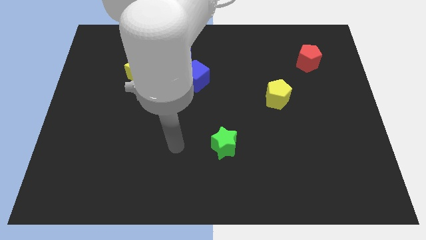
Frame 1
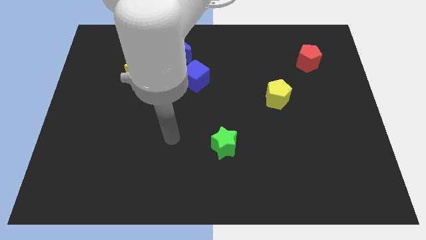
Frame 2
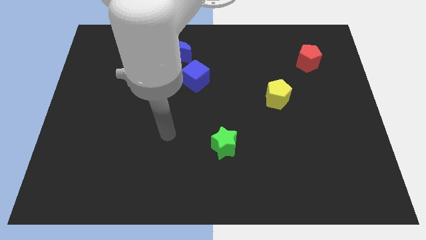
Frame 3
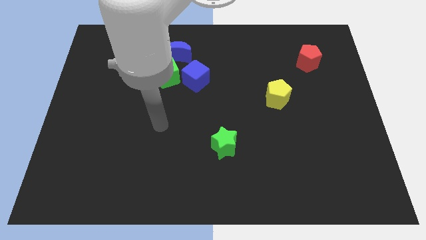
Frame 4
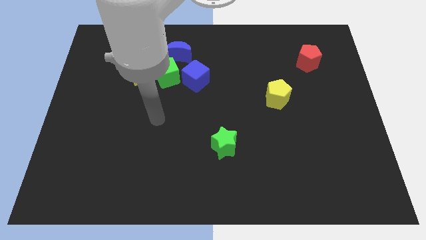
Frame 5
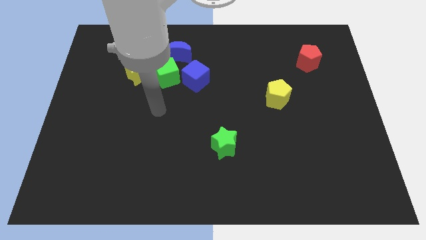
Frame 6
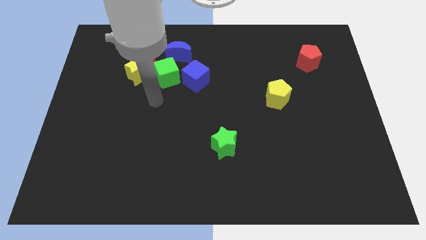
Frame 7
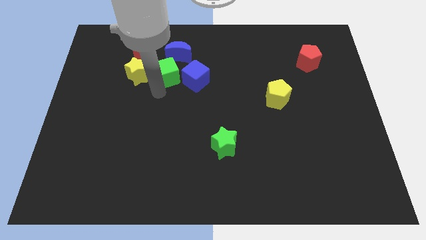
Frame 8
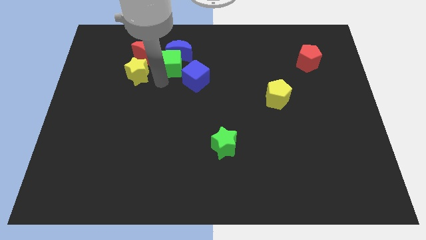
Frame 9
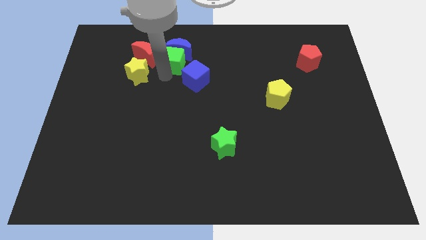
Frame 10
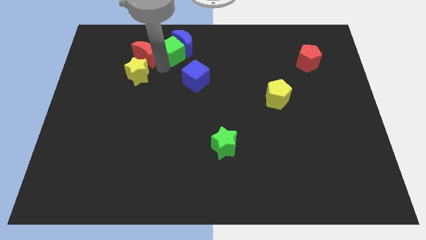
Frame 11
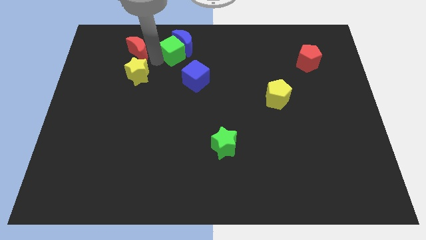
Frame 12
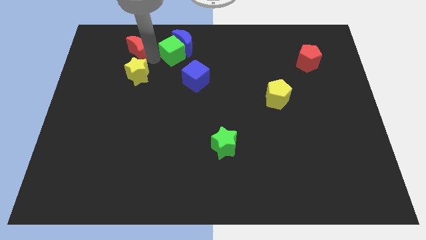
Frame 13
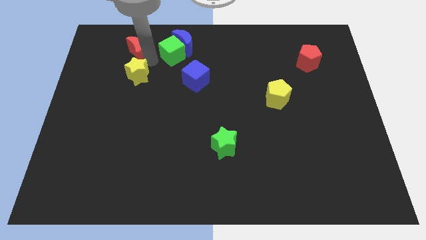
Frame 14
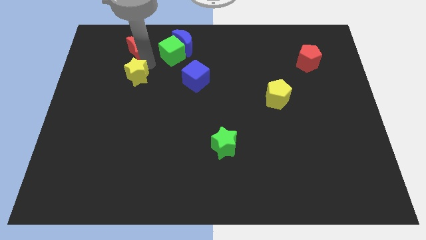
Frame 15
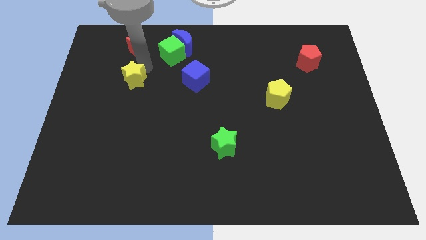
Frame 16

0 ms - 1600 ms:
pull the yellow star apart from the red moon and green cube

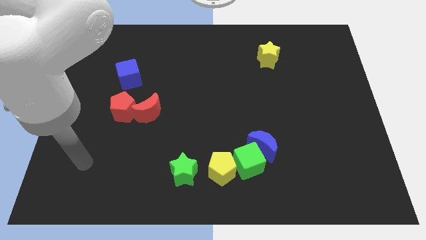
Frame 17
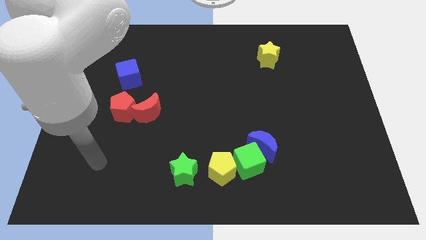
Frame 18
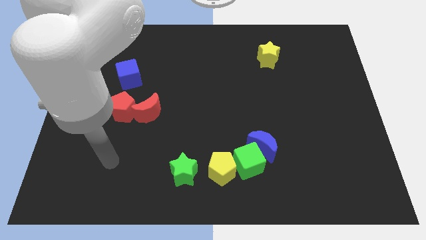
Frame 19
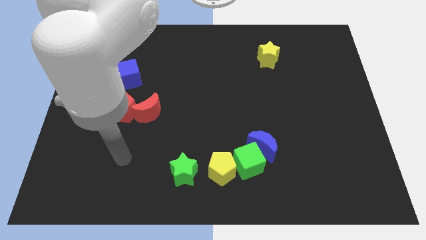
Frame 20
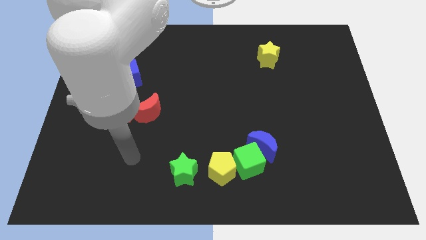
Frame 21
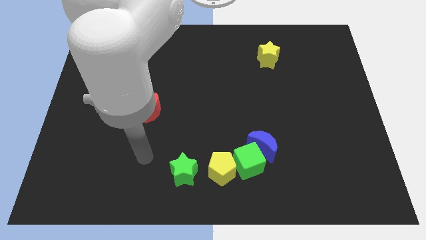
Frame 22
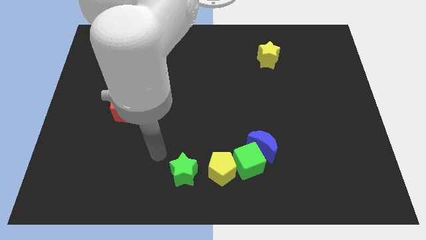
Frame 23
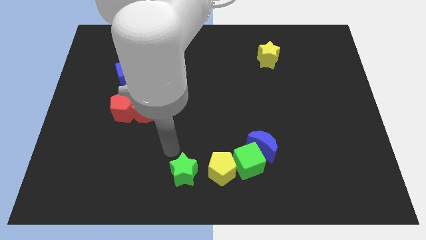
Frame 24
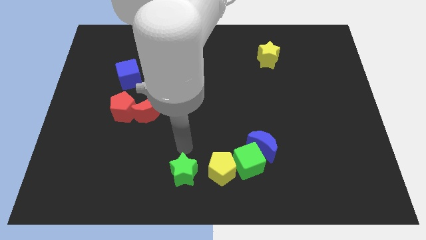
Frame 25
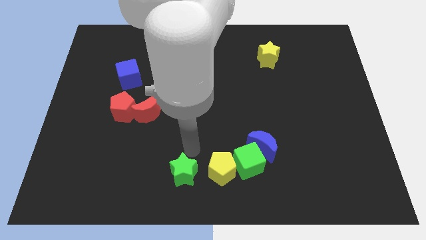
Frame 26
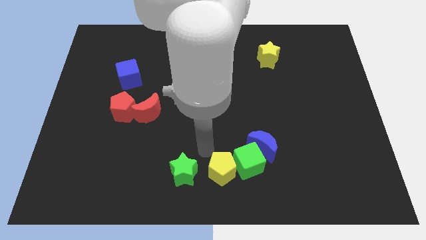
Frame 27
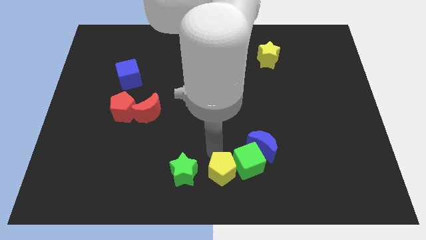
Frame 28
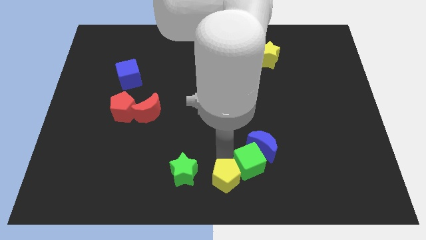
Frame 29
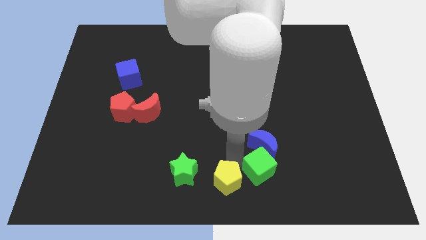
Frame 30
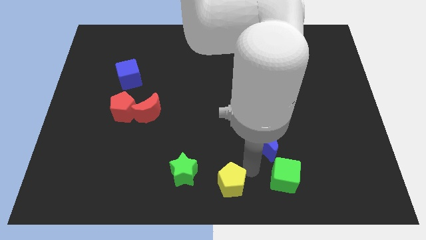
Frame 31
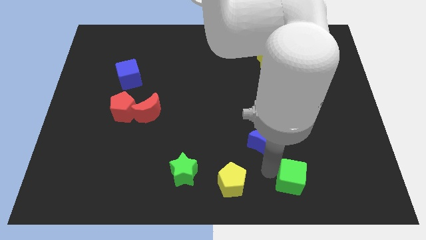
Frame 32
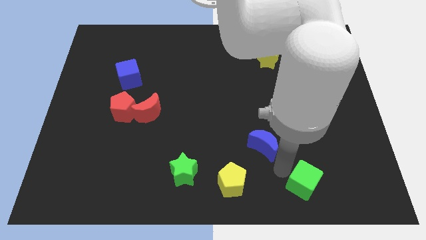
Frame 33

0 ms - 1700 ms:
move the blue moon away from the green cube

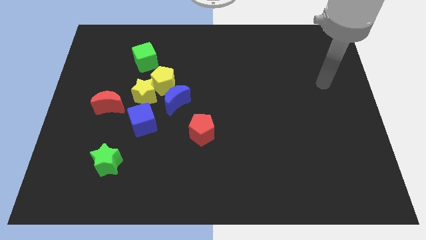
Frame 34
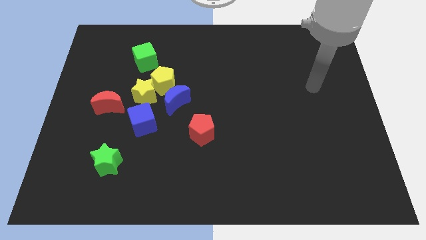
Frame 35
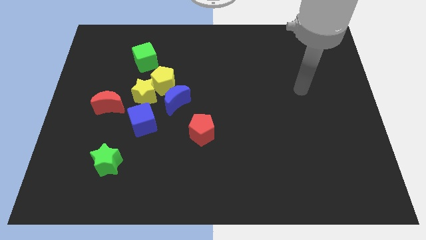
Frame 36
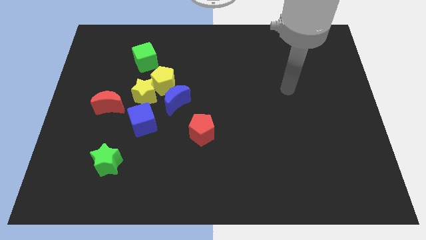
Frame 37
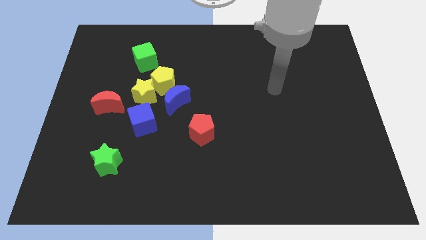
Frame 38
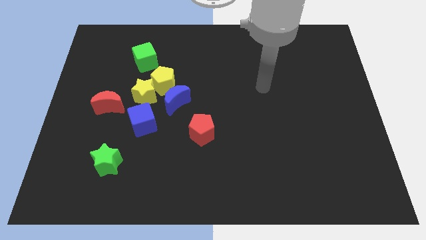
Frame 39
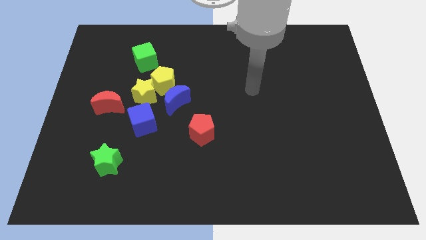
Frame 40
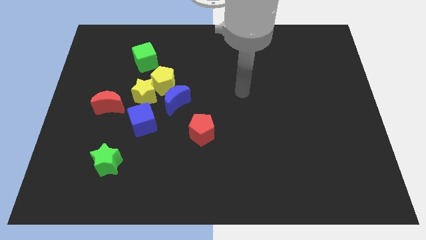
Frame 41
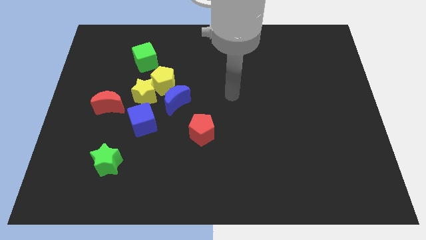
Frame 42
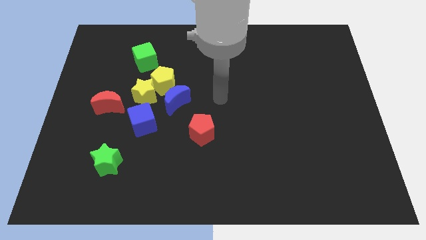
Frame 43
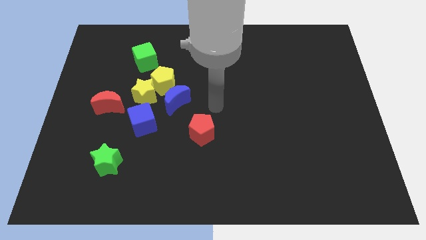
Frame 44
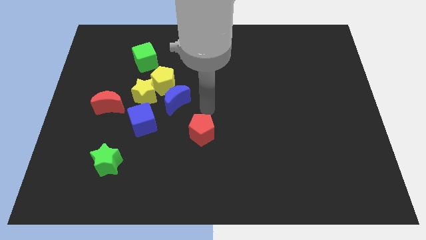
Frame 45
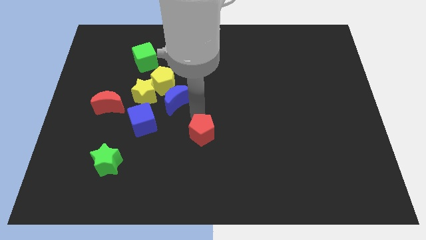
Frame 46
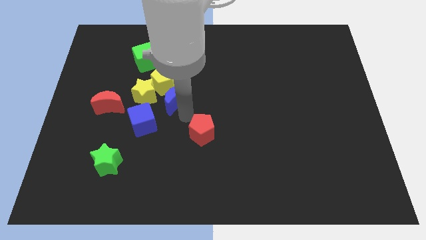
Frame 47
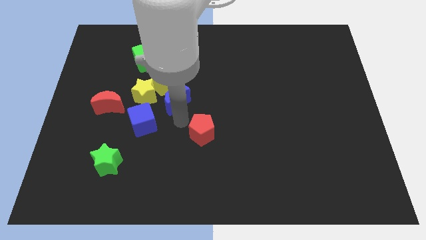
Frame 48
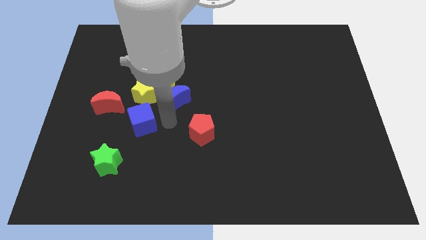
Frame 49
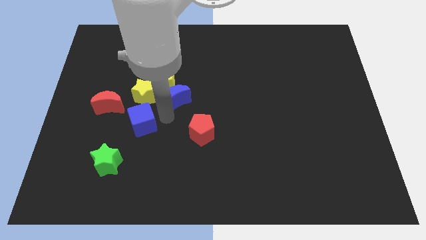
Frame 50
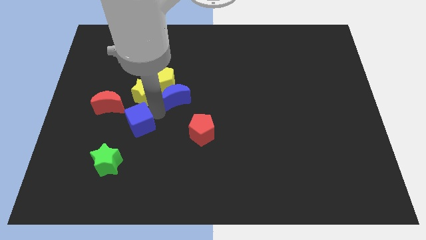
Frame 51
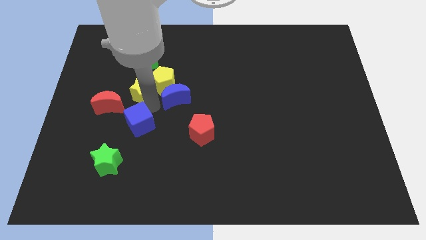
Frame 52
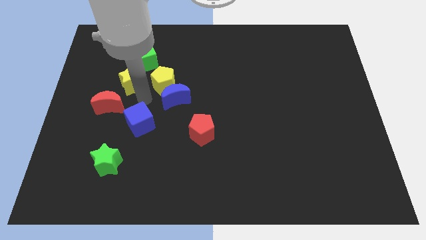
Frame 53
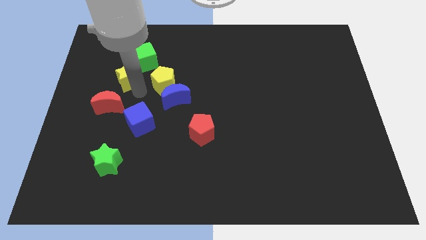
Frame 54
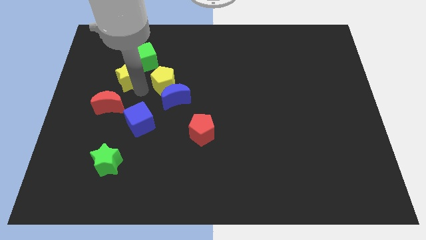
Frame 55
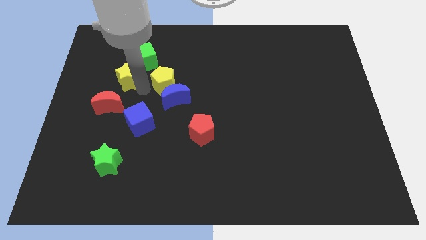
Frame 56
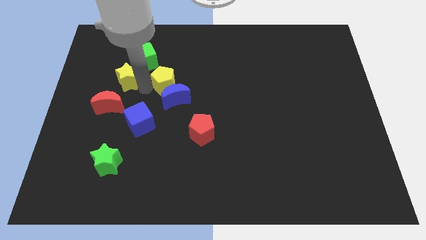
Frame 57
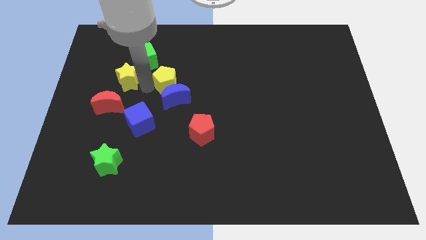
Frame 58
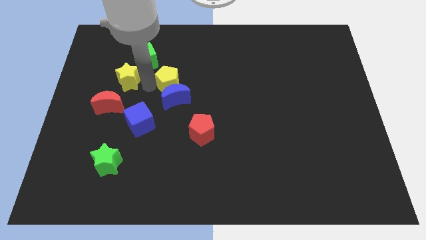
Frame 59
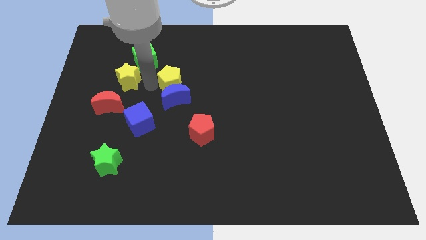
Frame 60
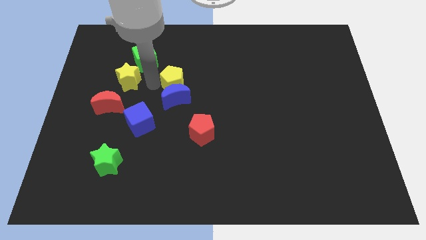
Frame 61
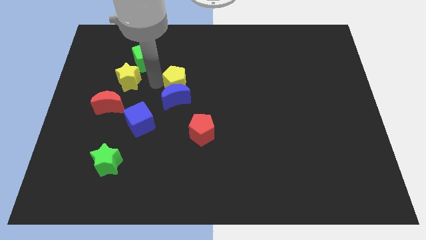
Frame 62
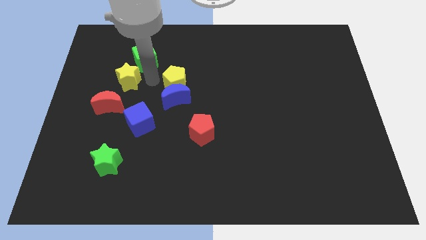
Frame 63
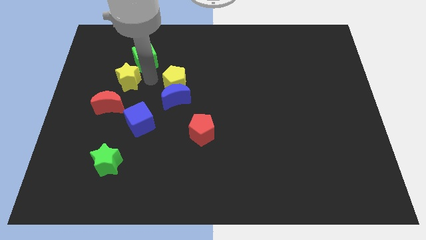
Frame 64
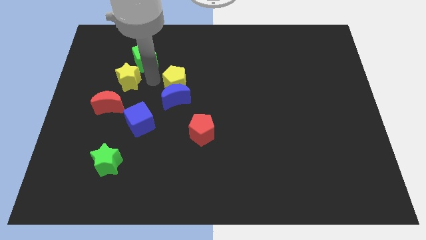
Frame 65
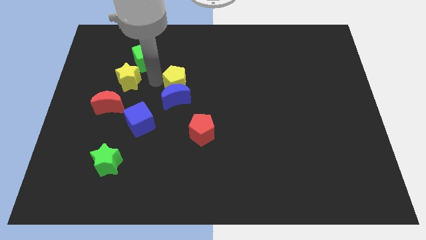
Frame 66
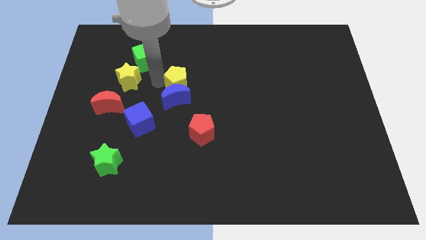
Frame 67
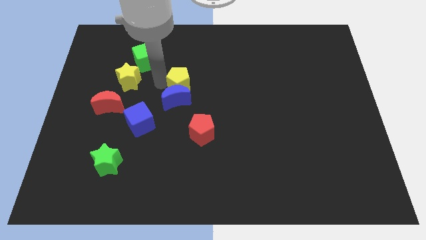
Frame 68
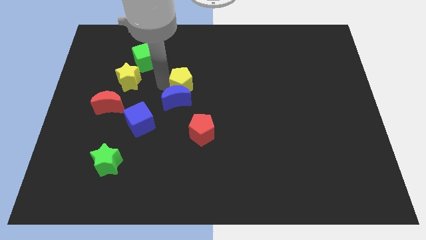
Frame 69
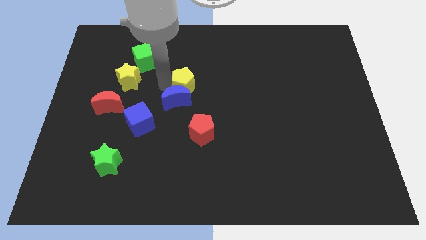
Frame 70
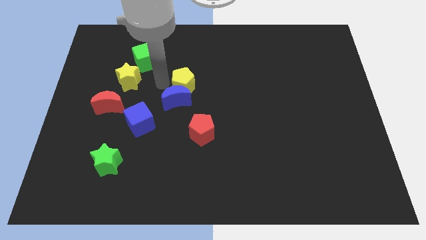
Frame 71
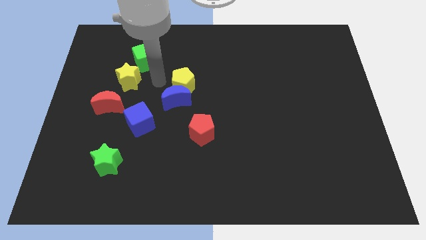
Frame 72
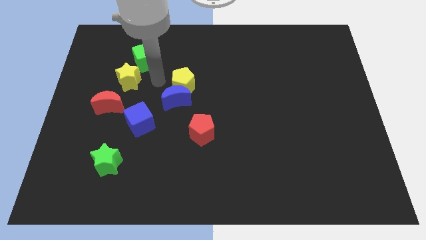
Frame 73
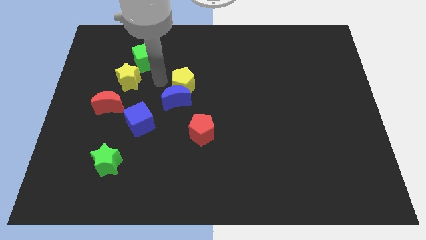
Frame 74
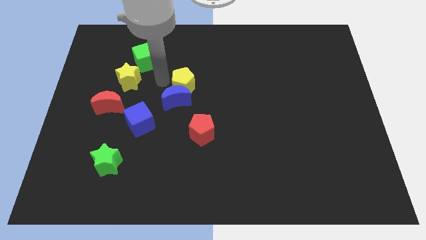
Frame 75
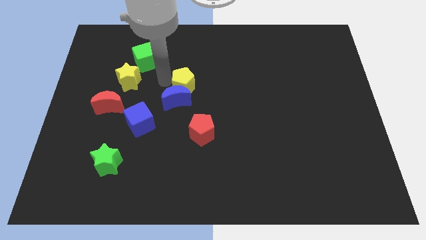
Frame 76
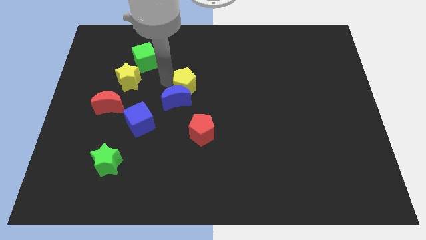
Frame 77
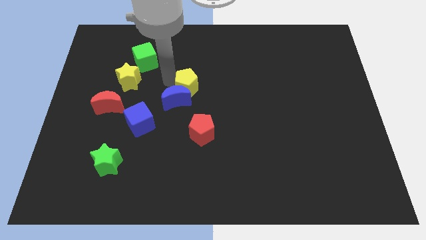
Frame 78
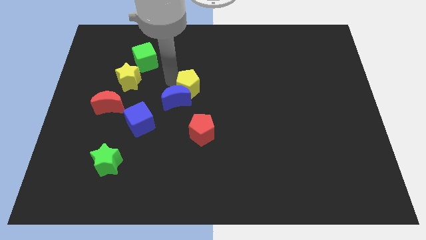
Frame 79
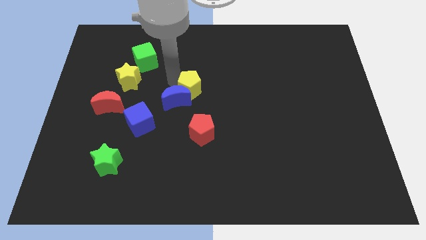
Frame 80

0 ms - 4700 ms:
separate the yellow pentagon from the yellow star, blue moon, and green cube

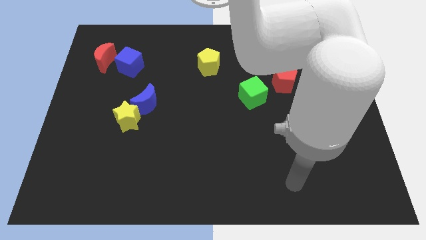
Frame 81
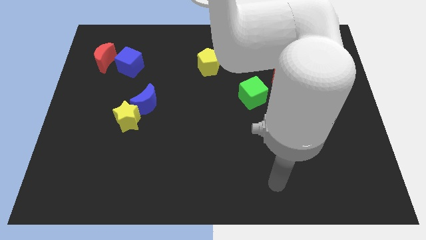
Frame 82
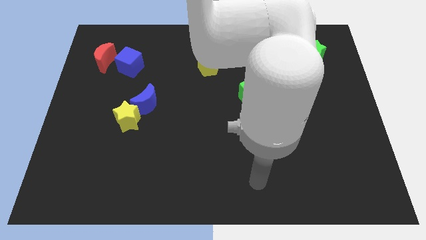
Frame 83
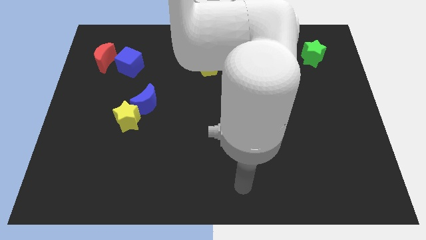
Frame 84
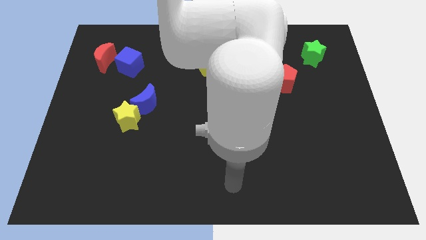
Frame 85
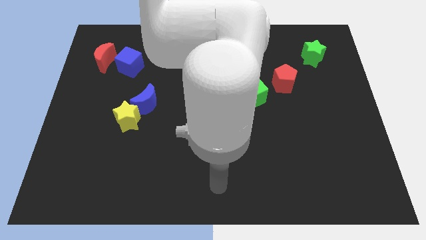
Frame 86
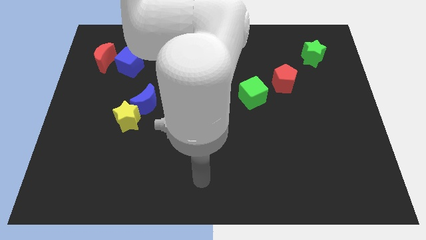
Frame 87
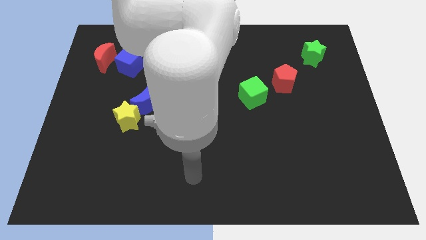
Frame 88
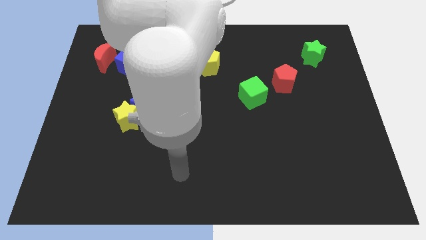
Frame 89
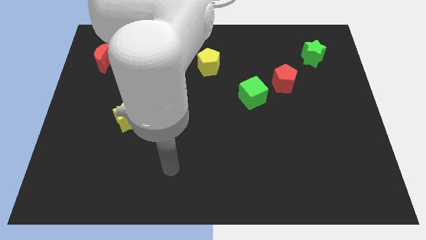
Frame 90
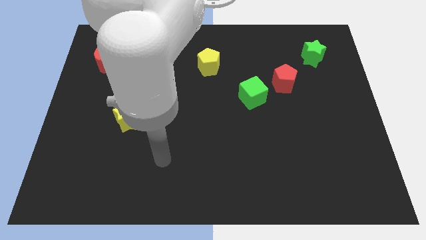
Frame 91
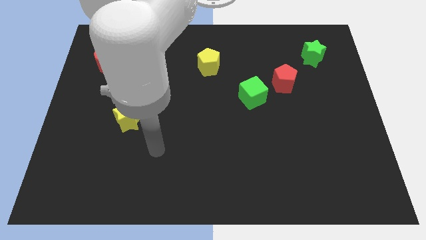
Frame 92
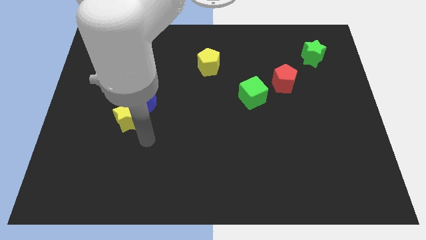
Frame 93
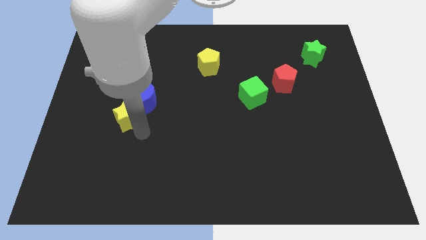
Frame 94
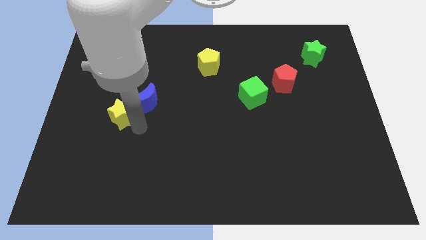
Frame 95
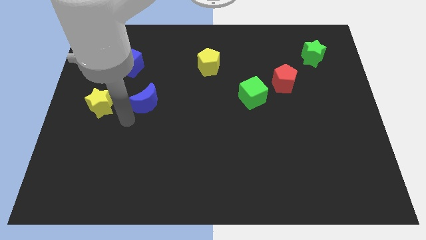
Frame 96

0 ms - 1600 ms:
move the blue moon away from the yellow star
